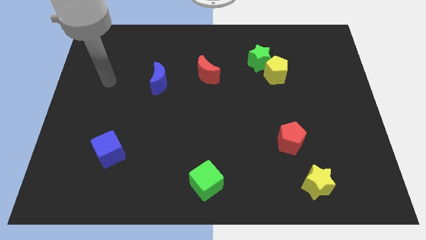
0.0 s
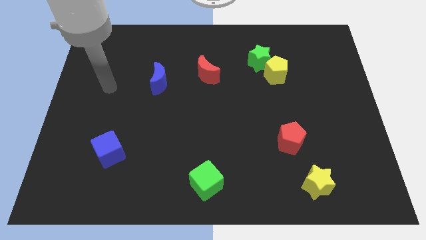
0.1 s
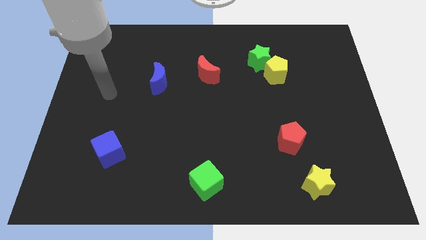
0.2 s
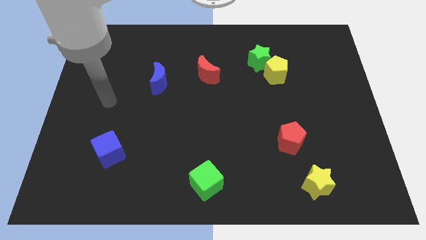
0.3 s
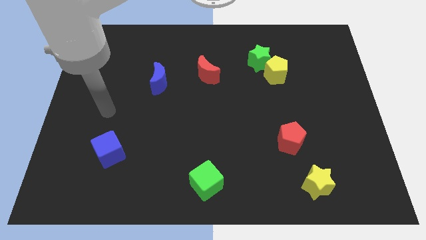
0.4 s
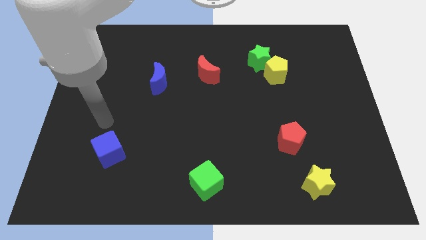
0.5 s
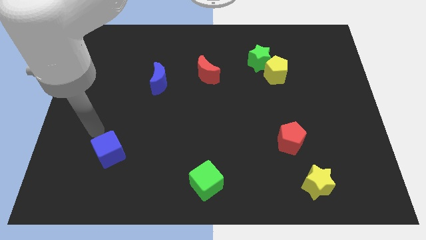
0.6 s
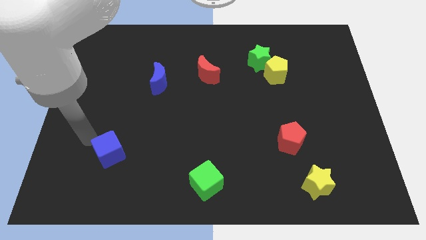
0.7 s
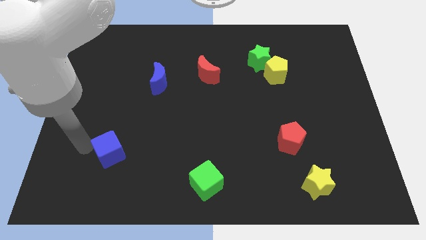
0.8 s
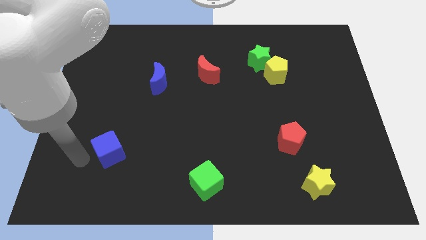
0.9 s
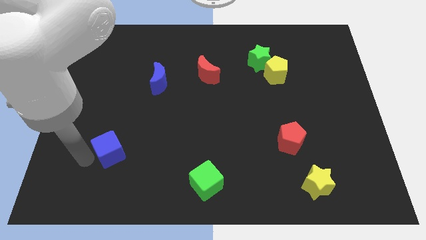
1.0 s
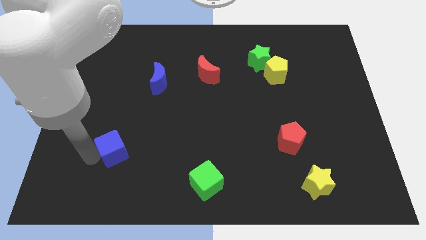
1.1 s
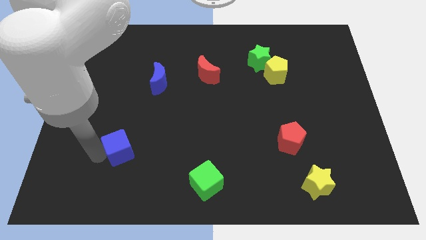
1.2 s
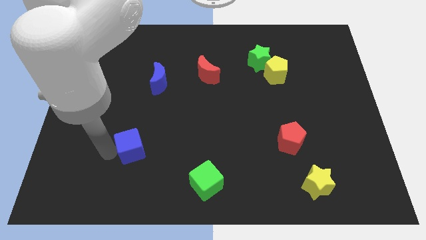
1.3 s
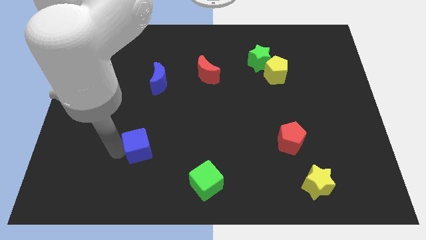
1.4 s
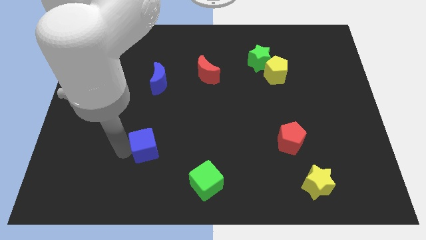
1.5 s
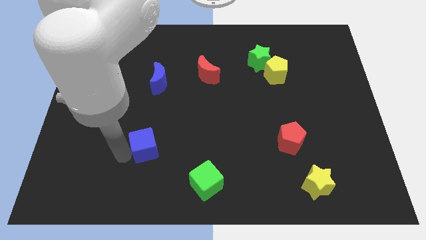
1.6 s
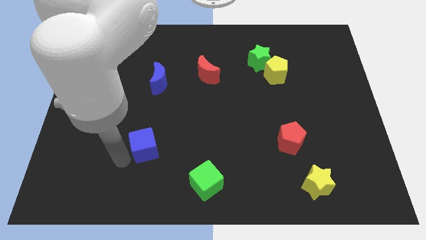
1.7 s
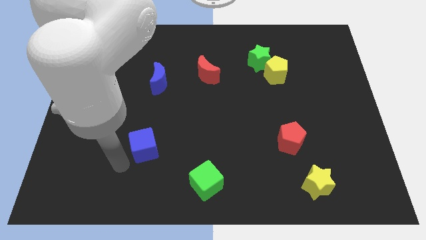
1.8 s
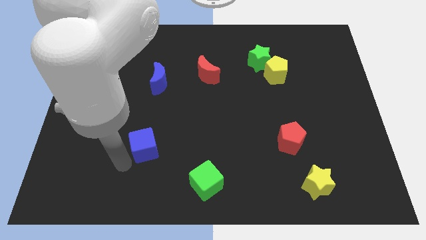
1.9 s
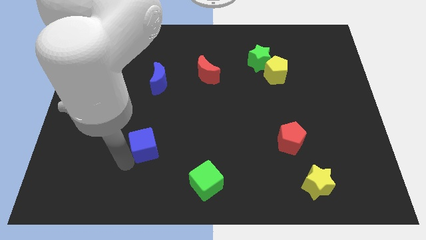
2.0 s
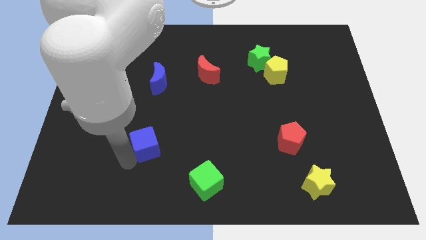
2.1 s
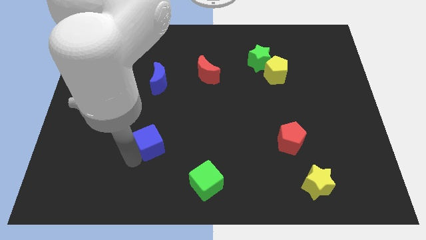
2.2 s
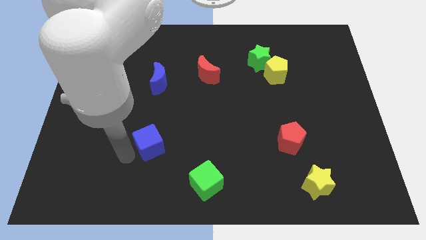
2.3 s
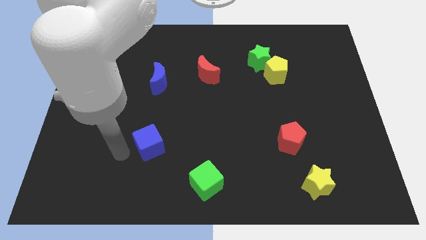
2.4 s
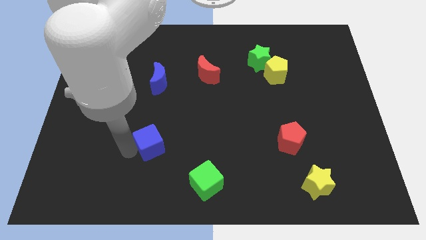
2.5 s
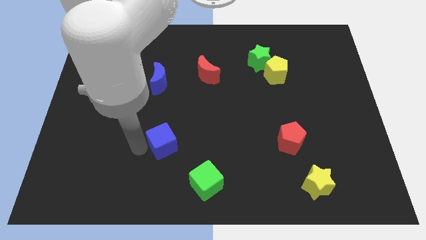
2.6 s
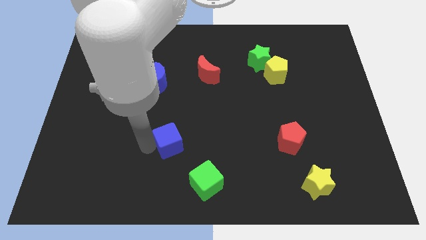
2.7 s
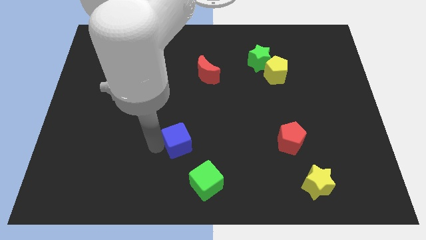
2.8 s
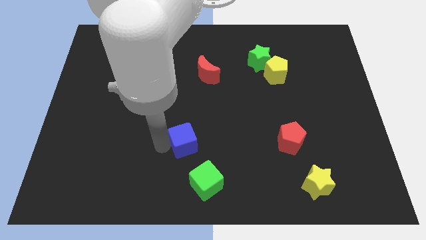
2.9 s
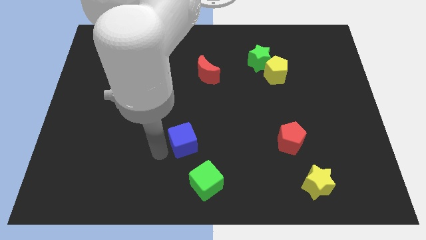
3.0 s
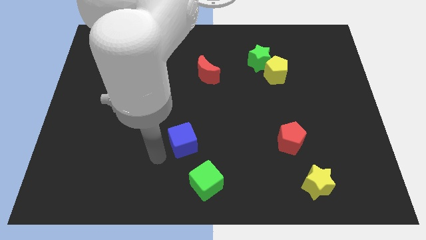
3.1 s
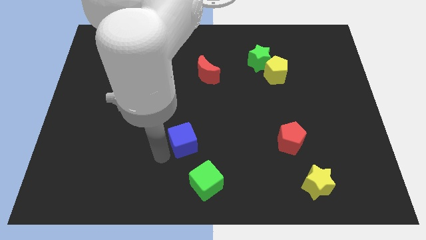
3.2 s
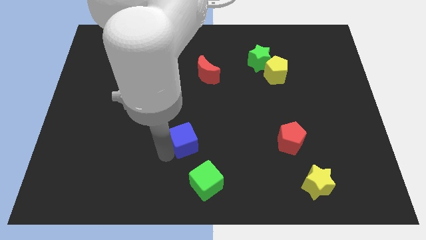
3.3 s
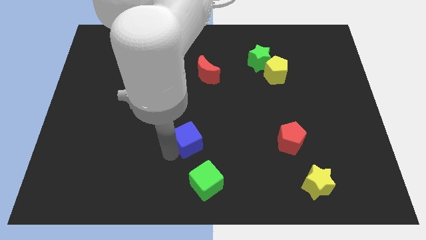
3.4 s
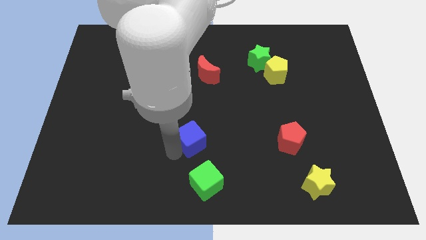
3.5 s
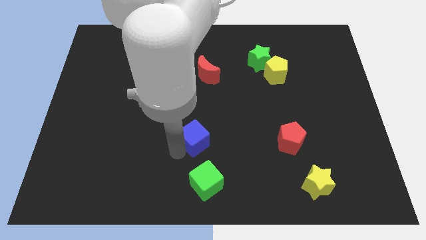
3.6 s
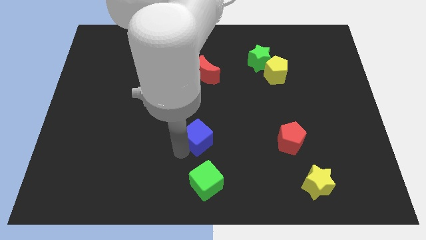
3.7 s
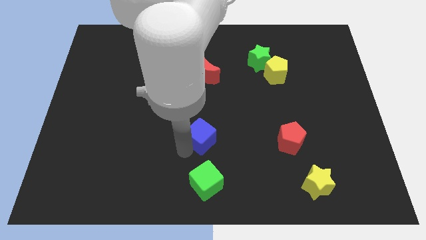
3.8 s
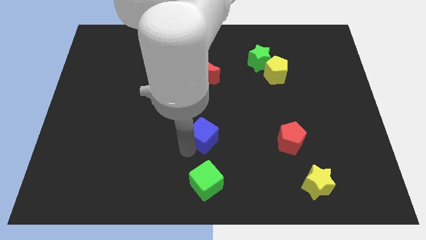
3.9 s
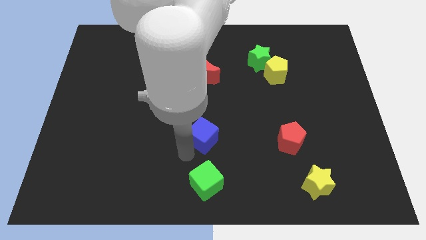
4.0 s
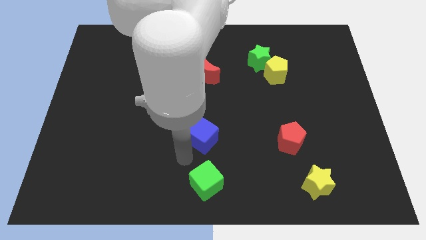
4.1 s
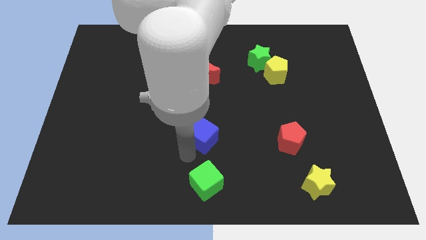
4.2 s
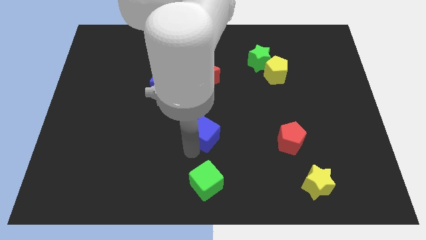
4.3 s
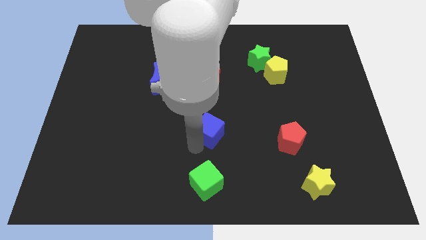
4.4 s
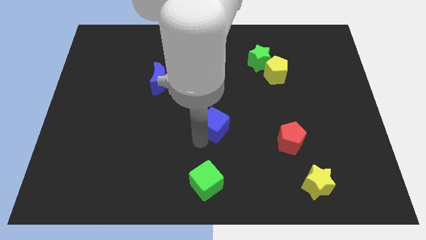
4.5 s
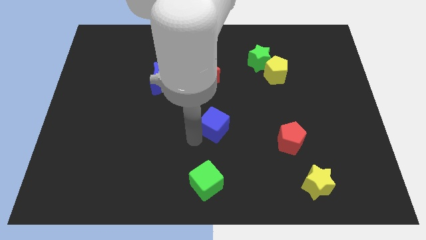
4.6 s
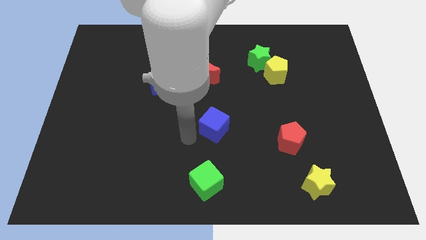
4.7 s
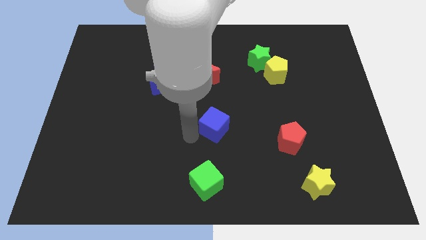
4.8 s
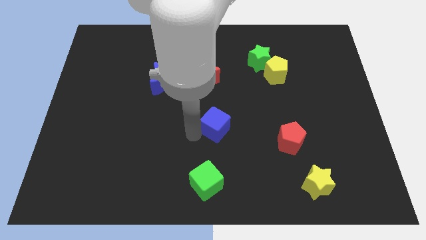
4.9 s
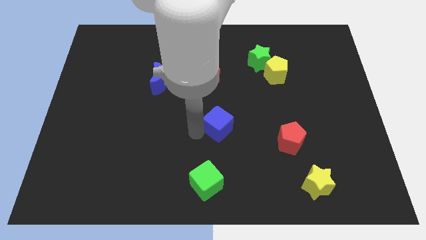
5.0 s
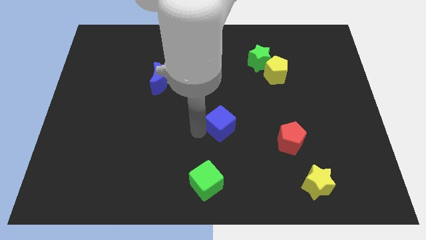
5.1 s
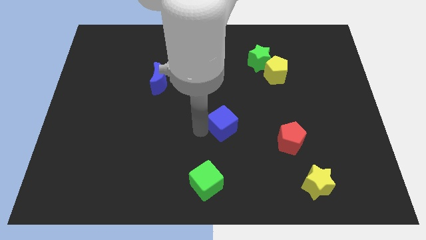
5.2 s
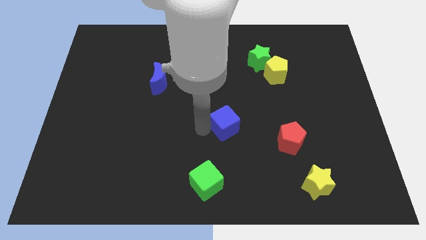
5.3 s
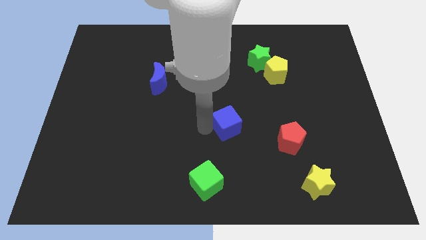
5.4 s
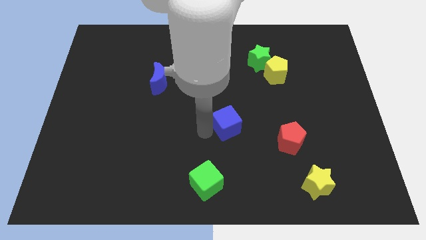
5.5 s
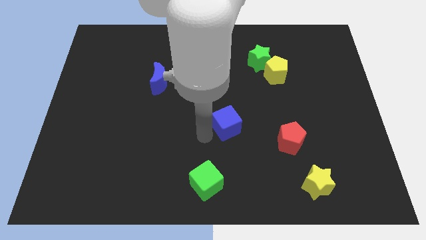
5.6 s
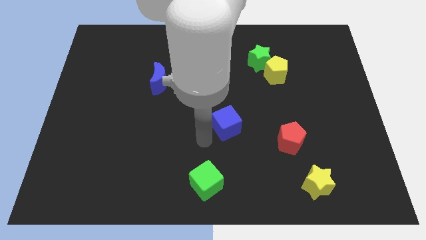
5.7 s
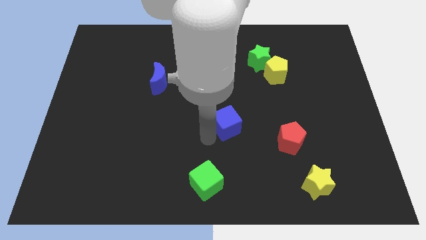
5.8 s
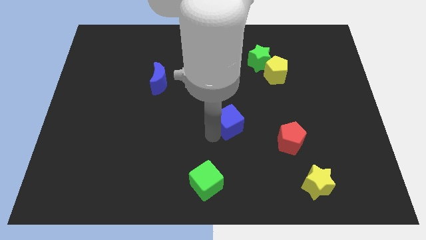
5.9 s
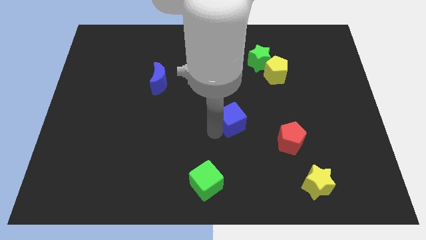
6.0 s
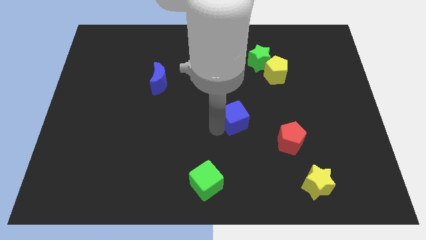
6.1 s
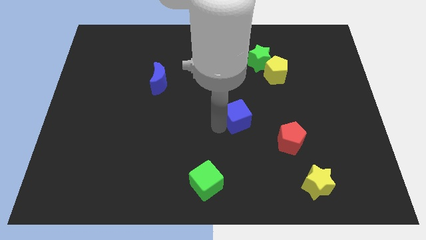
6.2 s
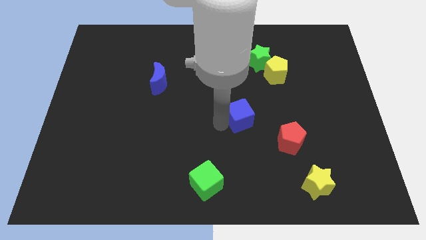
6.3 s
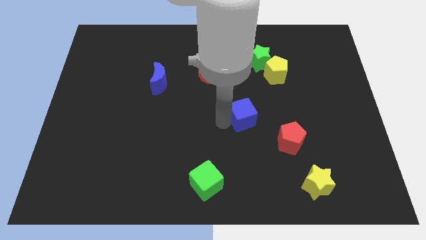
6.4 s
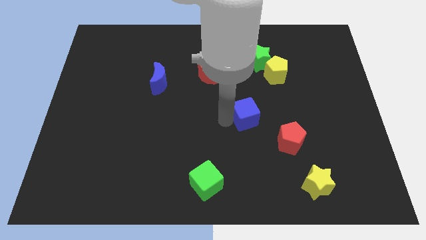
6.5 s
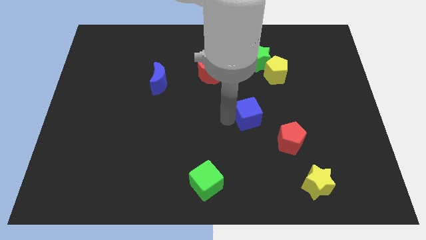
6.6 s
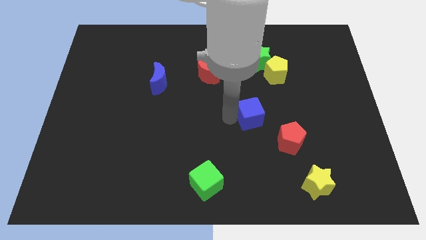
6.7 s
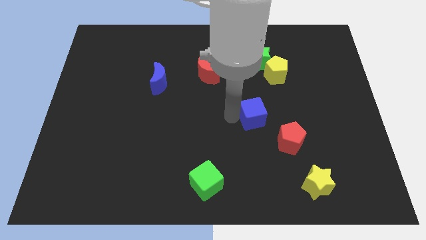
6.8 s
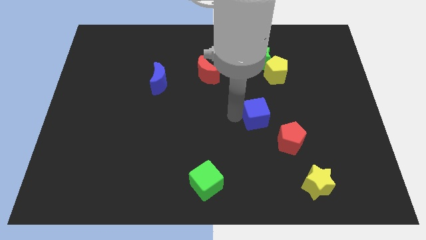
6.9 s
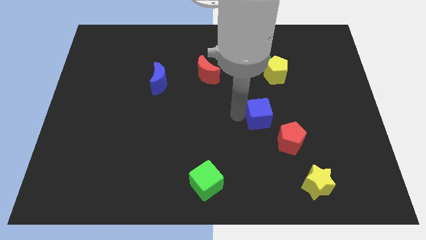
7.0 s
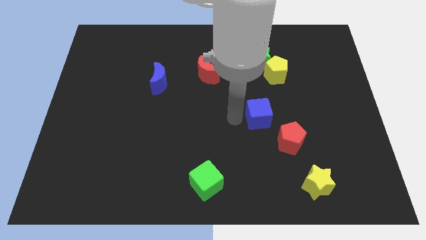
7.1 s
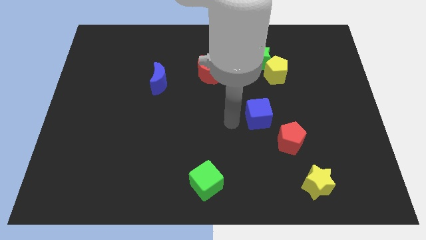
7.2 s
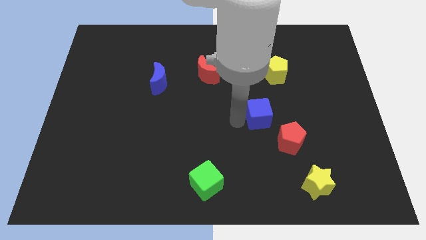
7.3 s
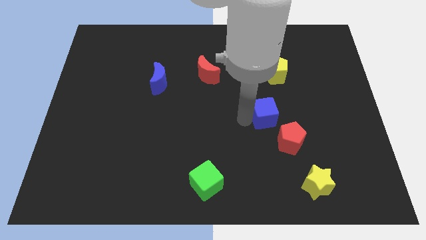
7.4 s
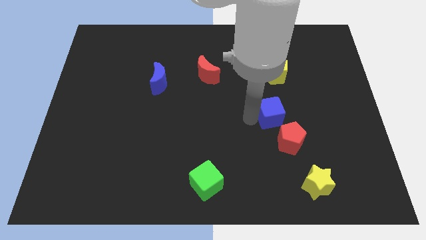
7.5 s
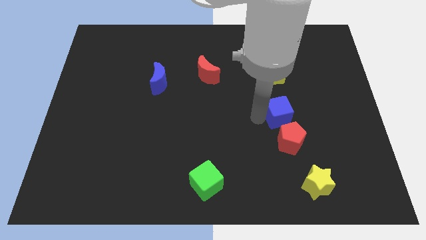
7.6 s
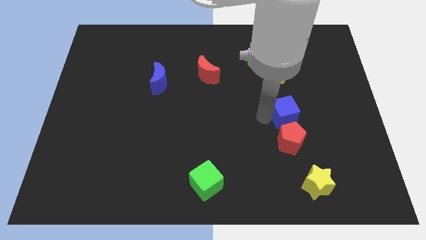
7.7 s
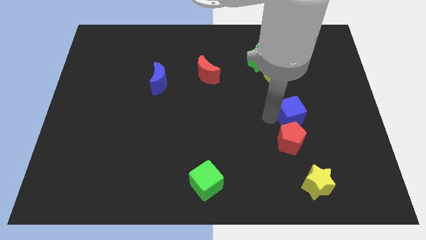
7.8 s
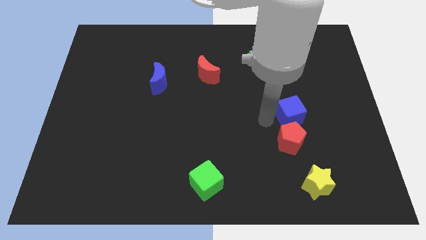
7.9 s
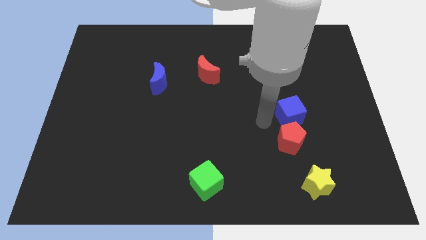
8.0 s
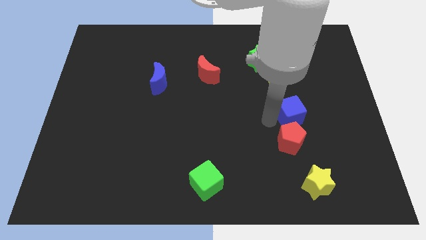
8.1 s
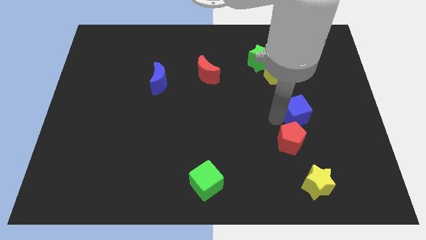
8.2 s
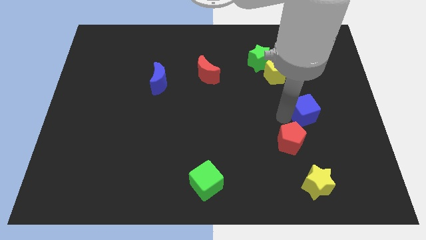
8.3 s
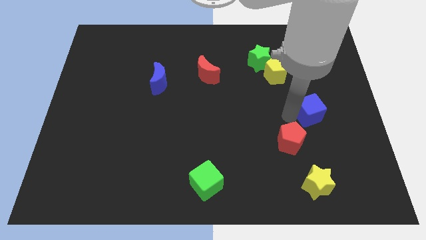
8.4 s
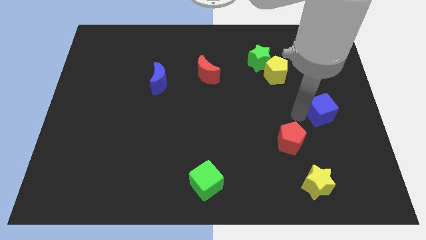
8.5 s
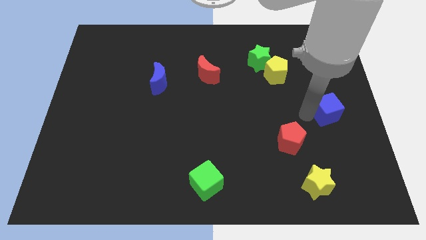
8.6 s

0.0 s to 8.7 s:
put the blue cube to the right side of the board
